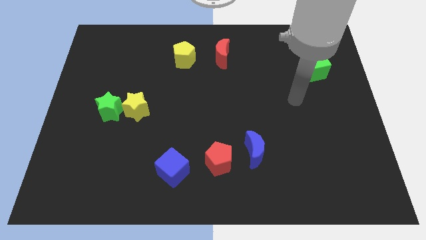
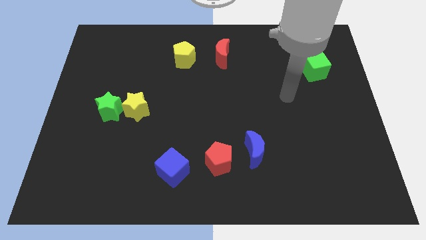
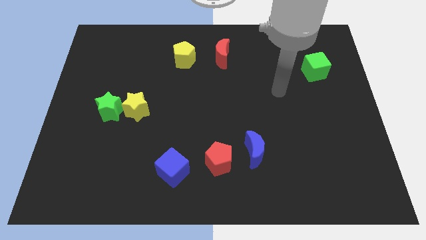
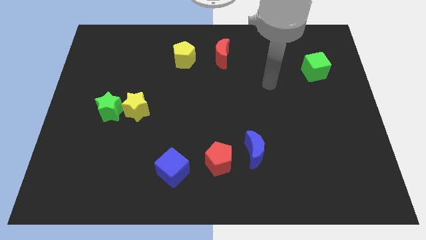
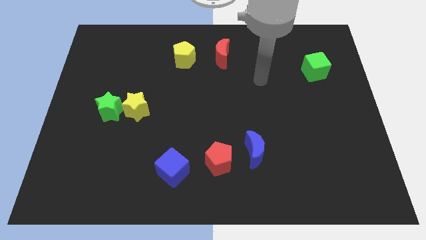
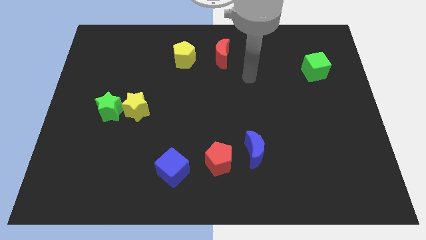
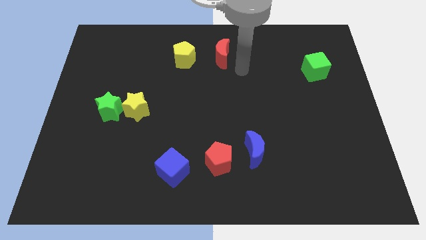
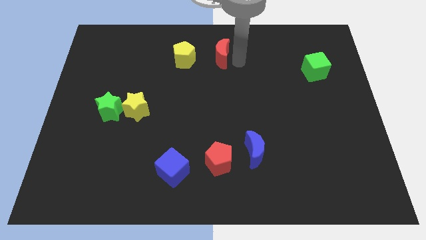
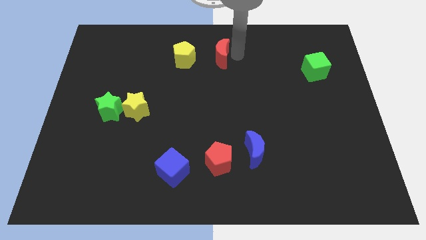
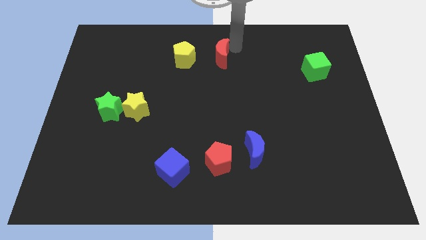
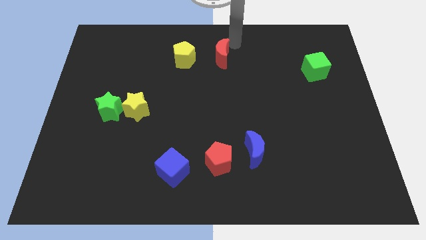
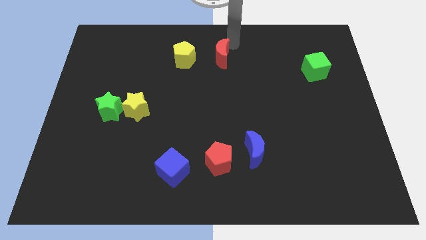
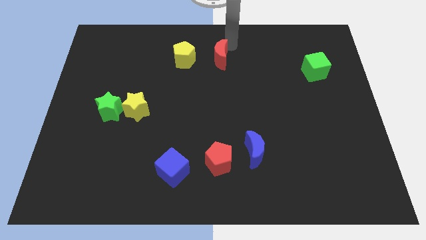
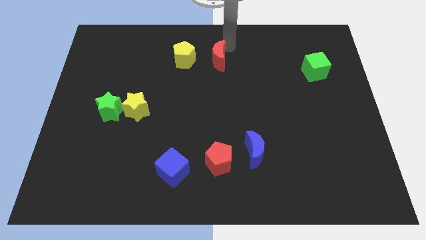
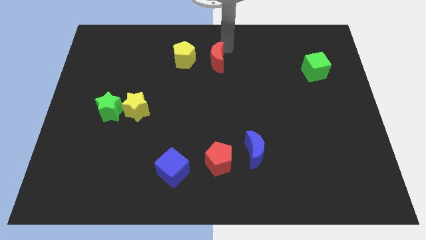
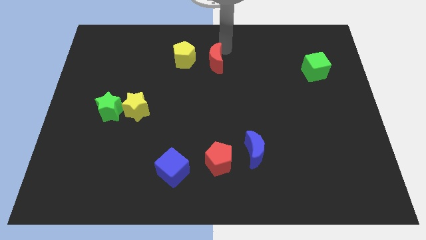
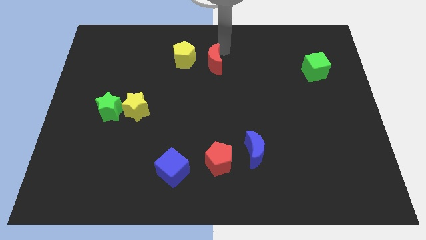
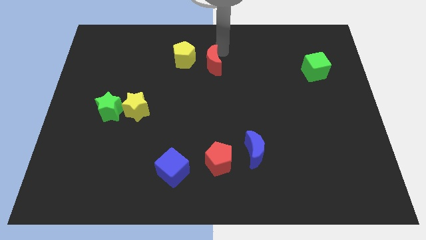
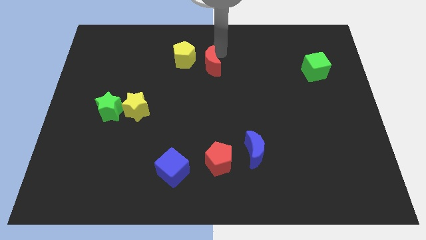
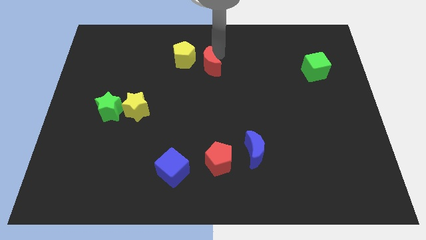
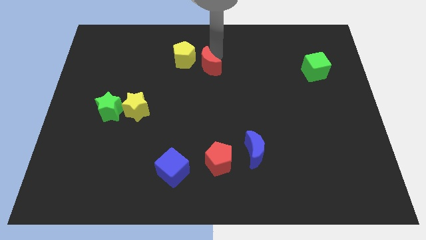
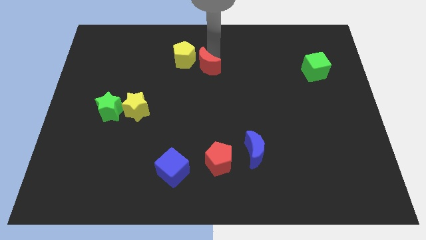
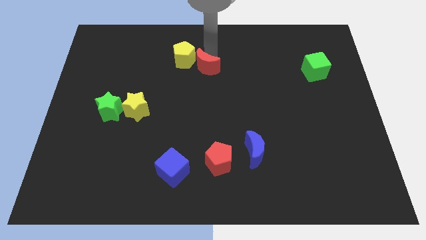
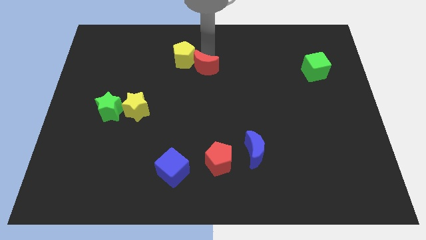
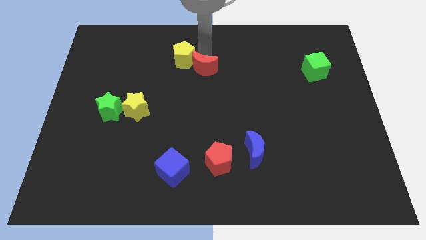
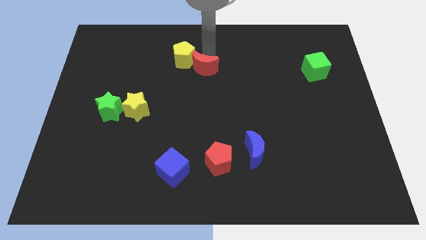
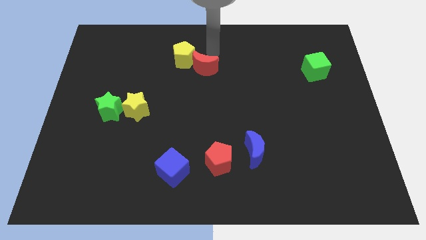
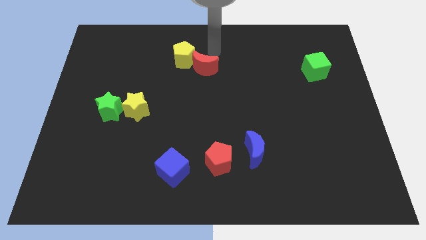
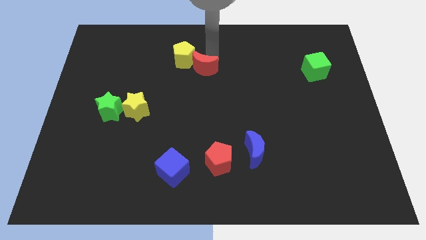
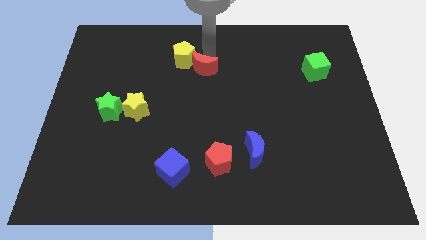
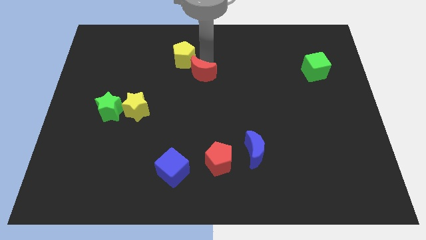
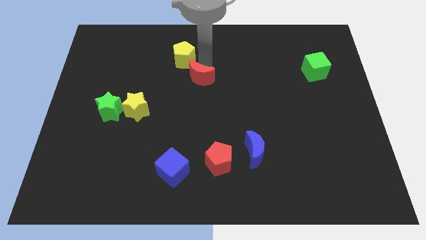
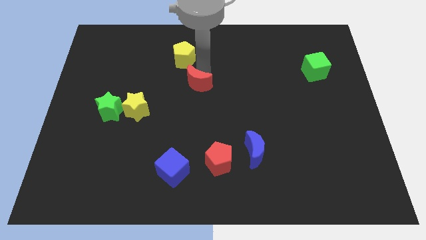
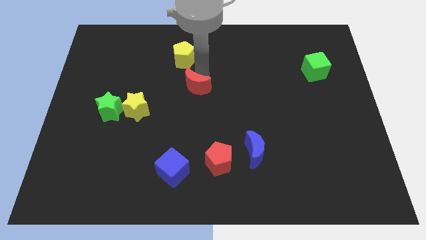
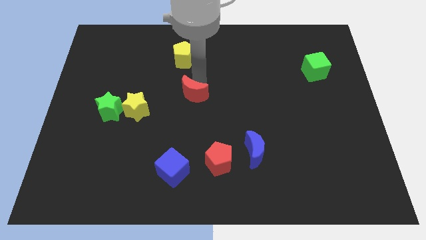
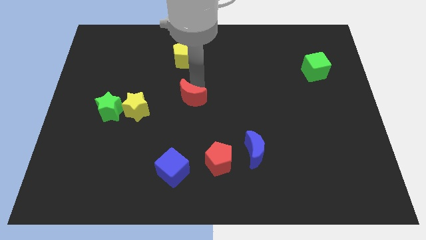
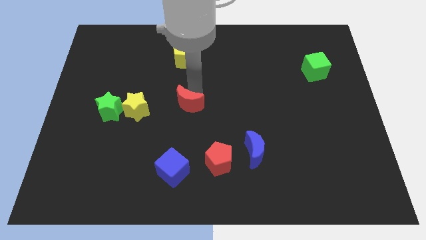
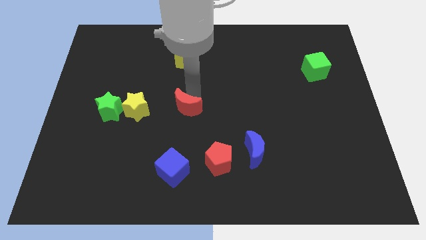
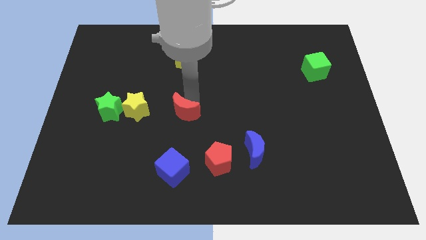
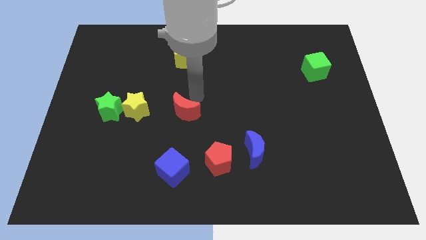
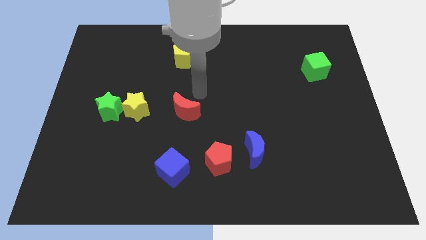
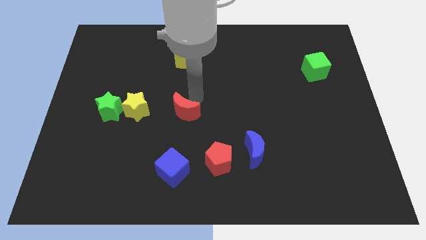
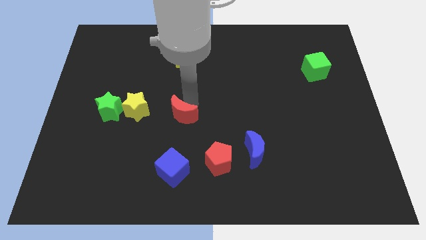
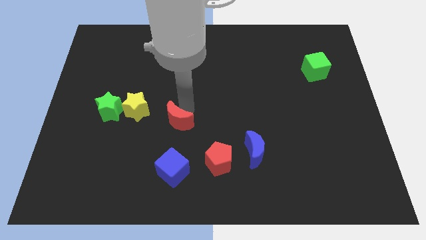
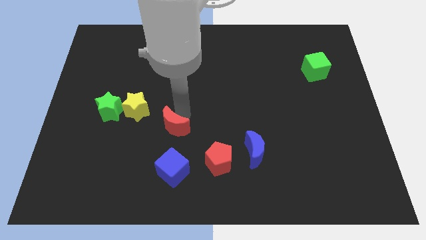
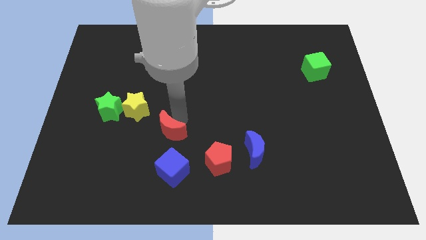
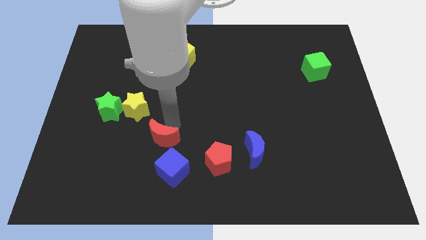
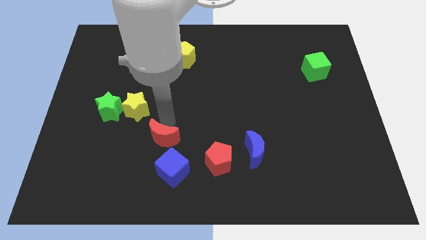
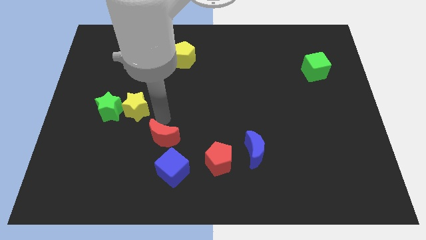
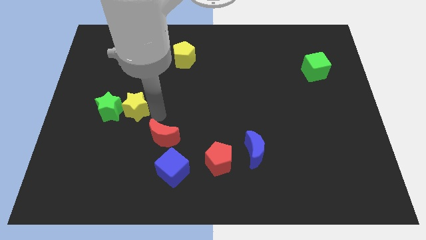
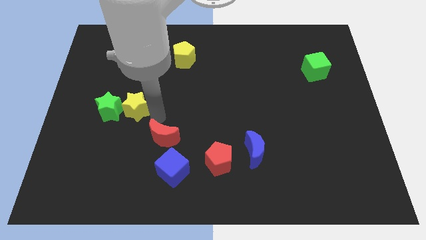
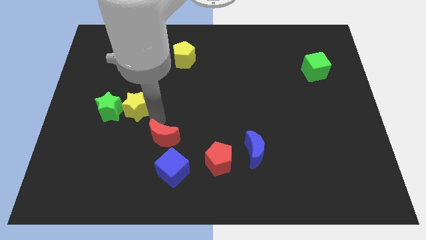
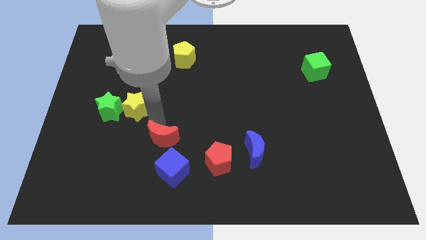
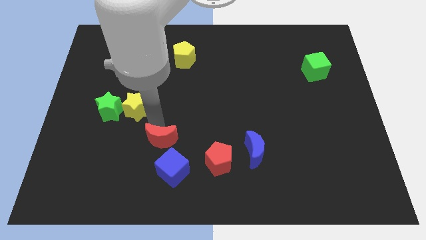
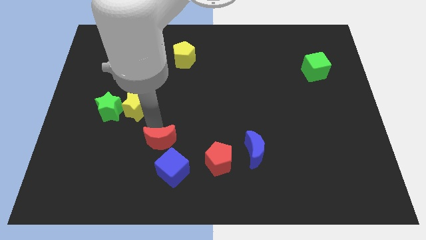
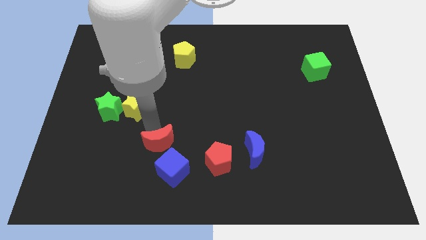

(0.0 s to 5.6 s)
slide the red moon left of the red pentagon

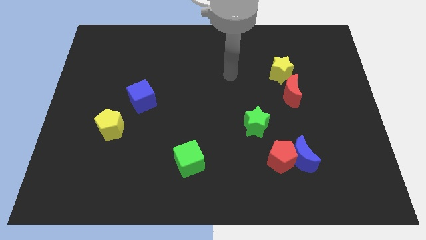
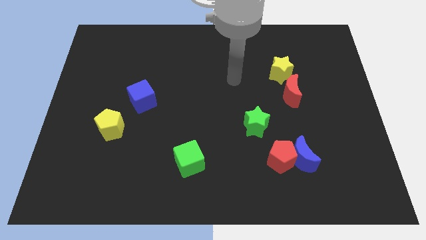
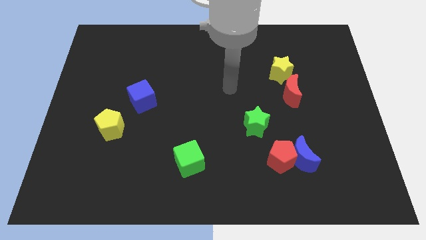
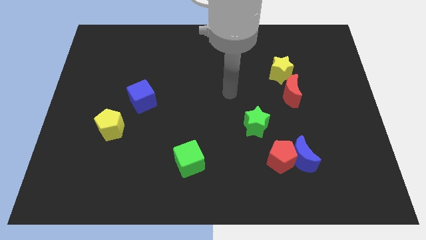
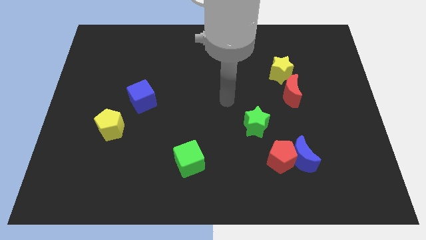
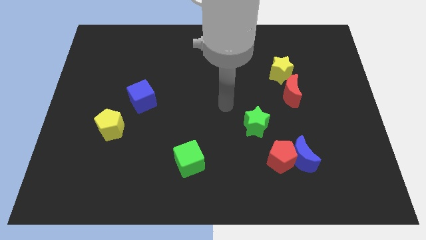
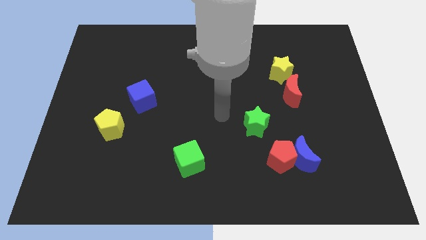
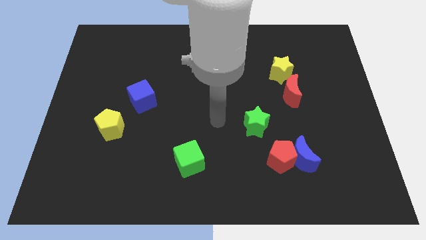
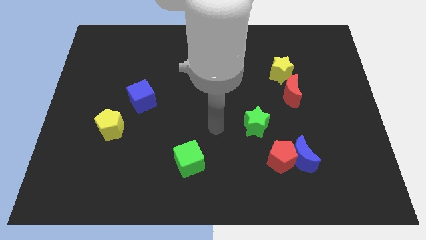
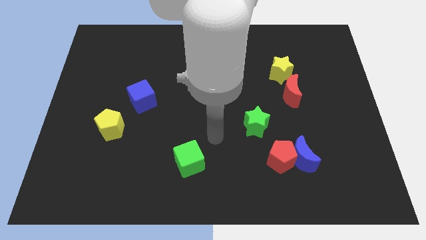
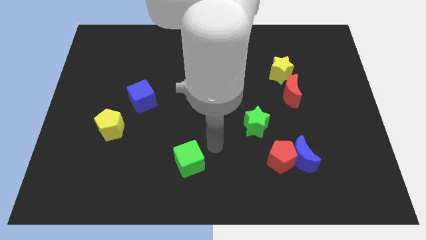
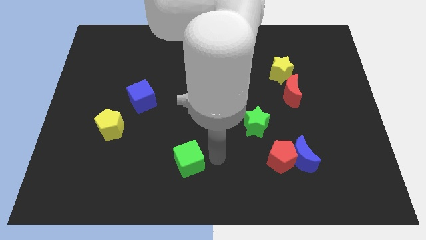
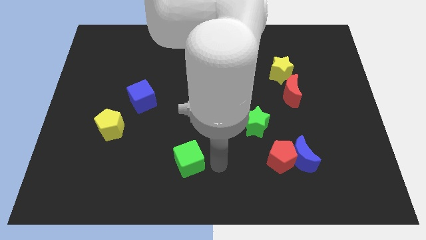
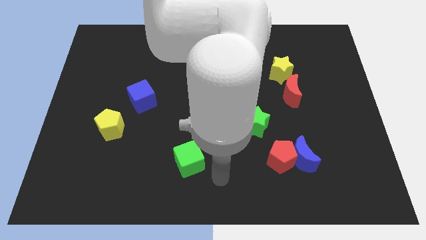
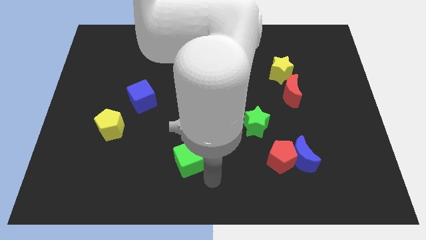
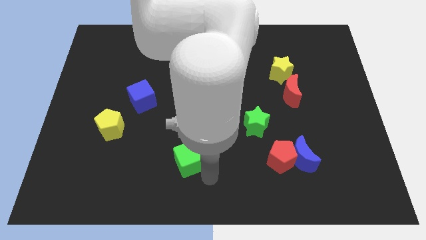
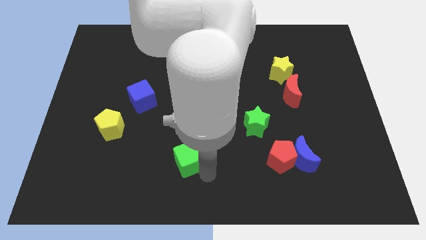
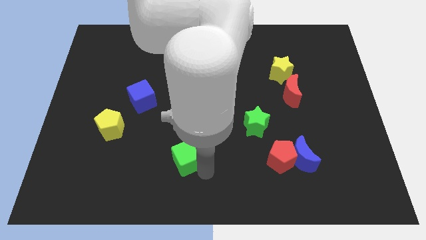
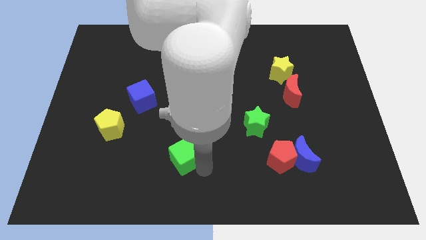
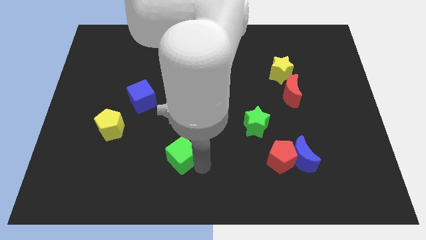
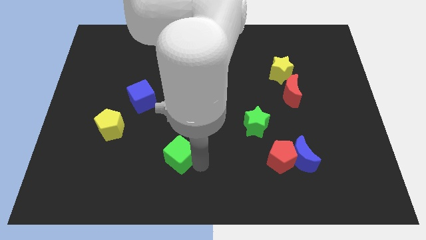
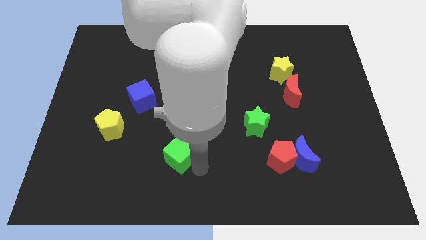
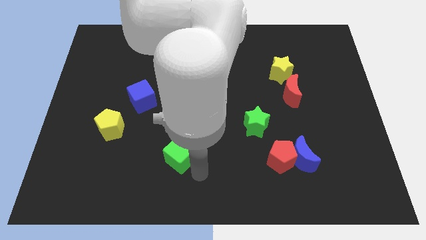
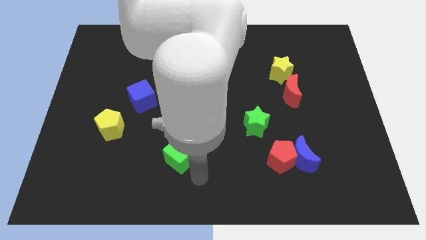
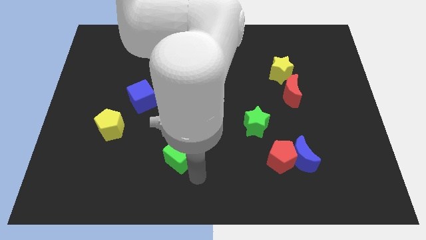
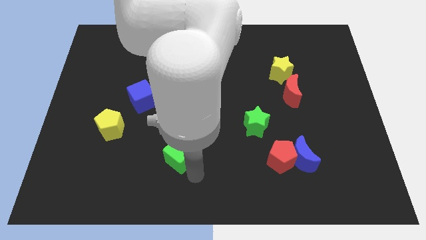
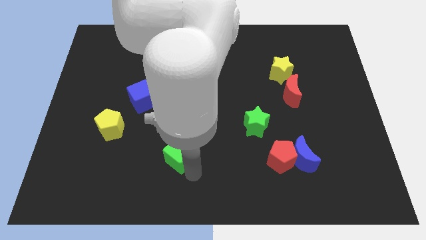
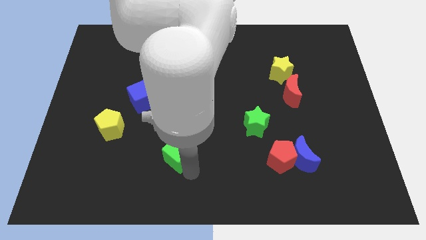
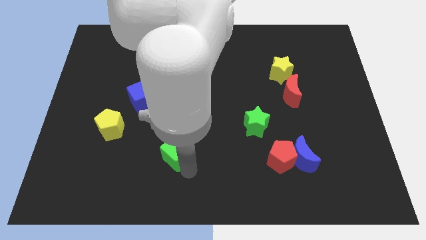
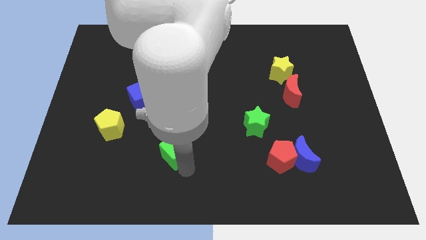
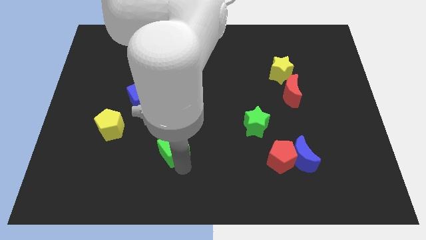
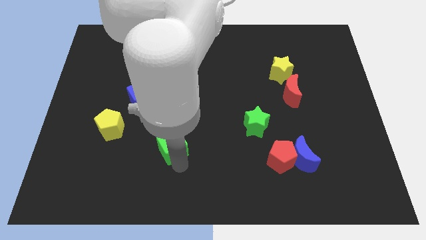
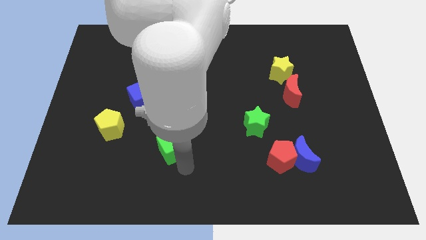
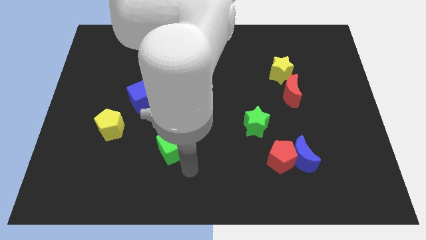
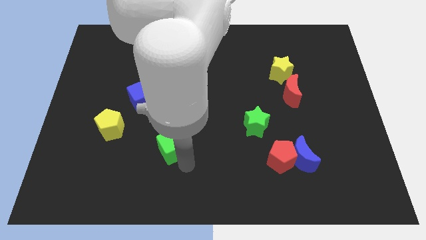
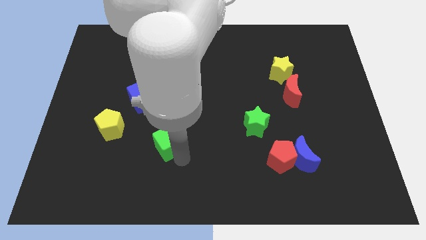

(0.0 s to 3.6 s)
slide the green cube to the right side of the yellow pentagon
